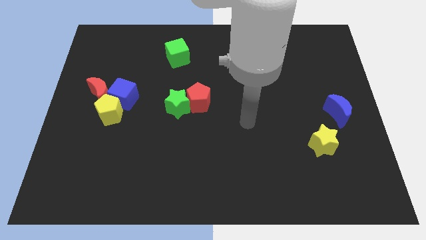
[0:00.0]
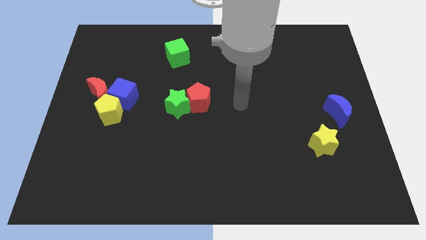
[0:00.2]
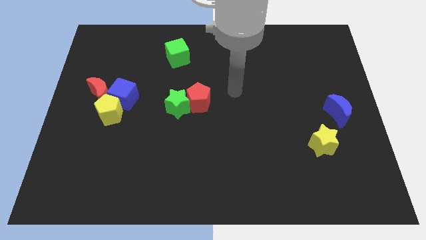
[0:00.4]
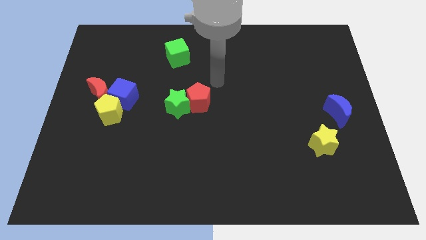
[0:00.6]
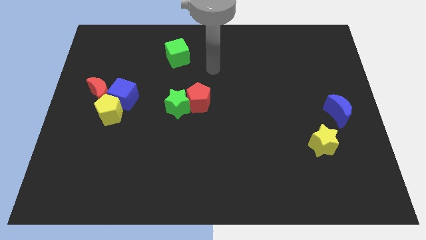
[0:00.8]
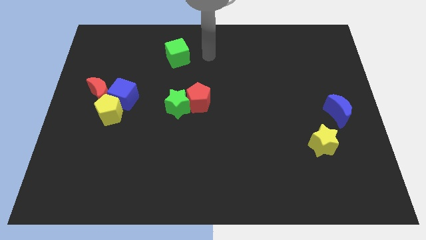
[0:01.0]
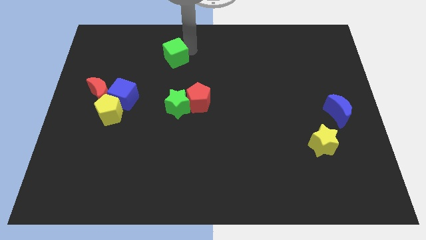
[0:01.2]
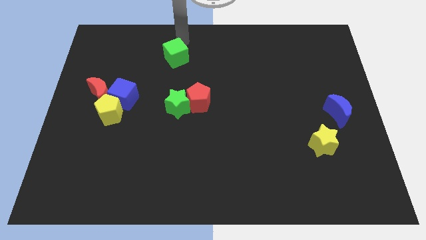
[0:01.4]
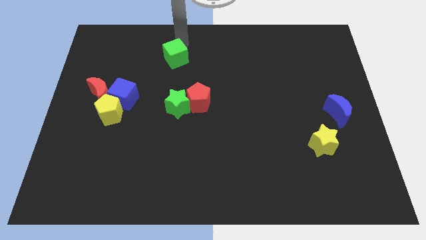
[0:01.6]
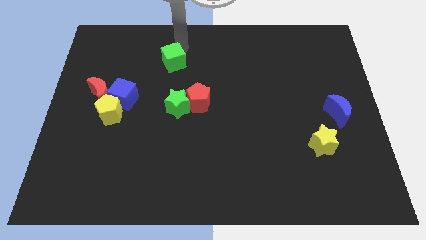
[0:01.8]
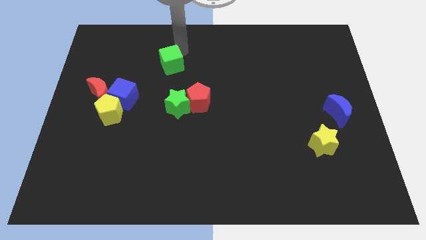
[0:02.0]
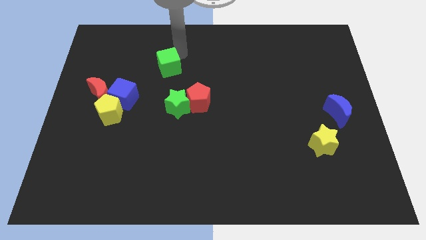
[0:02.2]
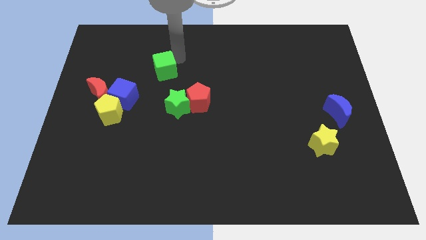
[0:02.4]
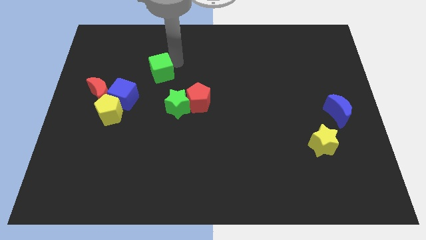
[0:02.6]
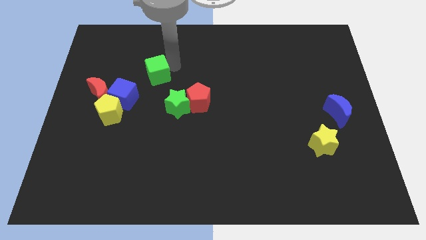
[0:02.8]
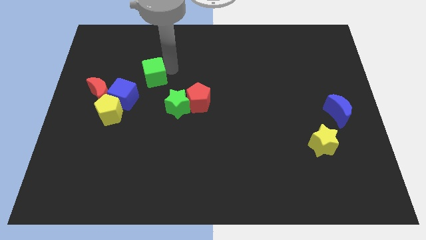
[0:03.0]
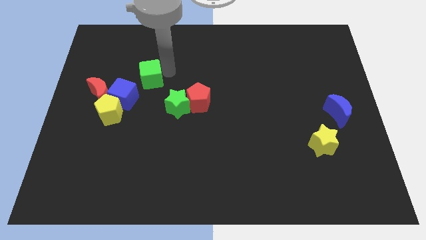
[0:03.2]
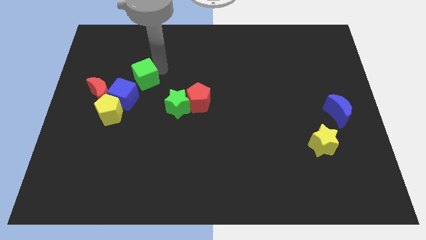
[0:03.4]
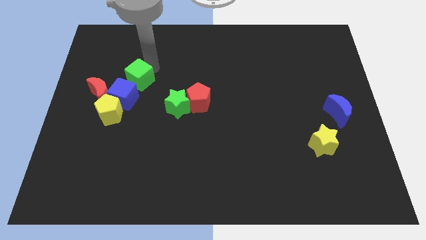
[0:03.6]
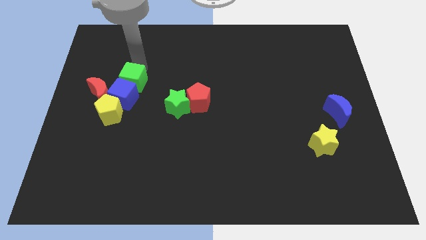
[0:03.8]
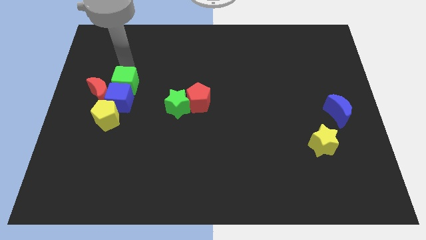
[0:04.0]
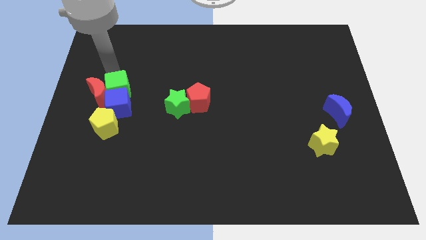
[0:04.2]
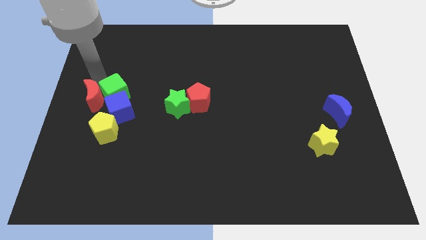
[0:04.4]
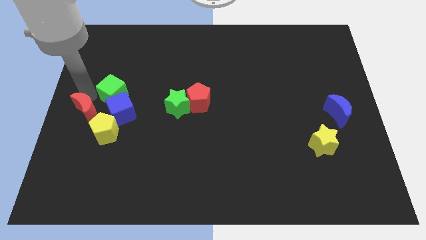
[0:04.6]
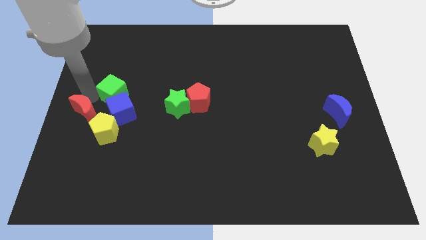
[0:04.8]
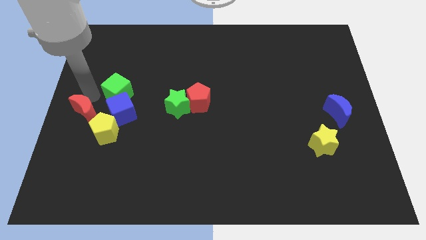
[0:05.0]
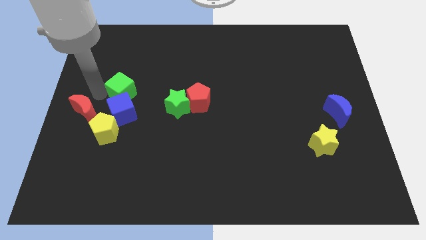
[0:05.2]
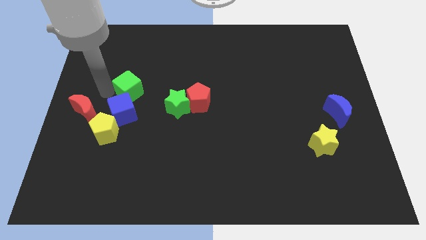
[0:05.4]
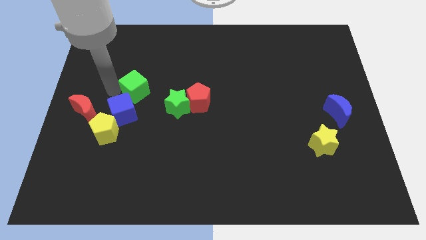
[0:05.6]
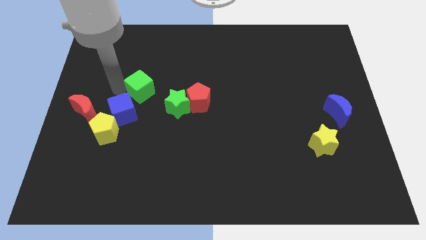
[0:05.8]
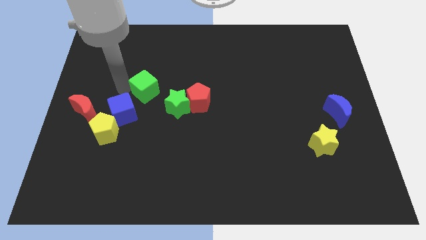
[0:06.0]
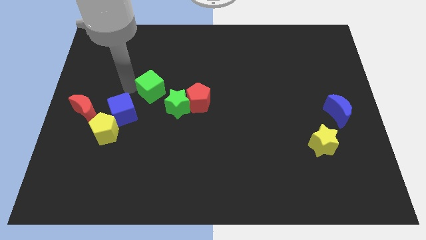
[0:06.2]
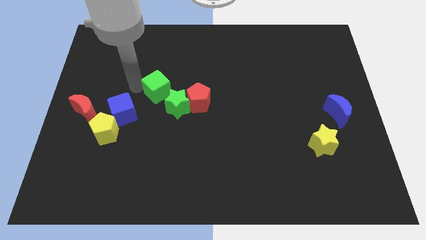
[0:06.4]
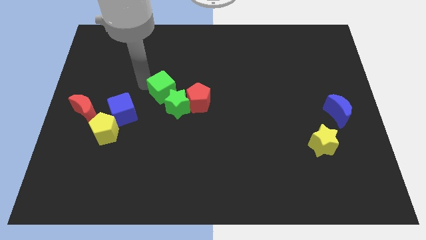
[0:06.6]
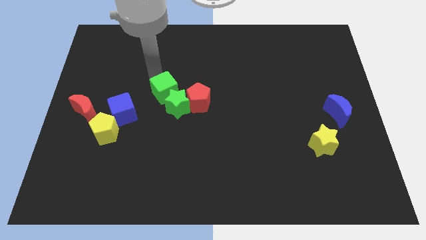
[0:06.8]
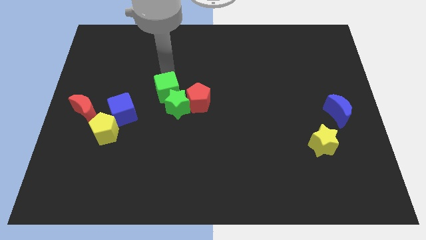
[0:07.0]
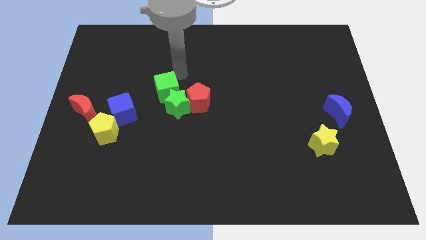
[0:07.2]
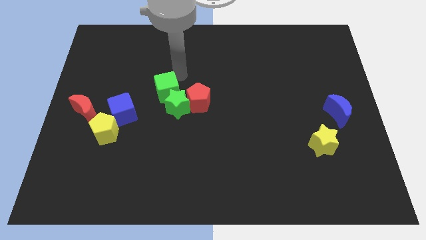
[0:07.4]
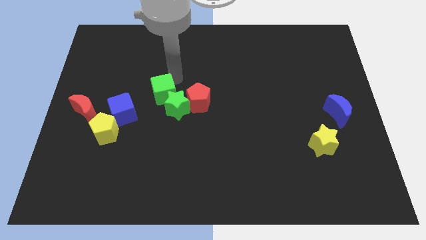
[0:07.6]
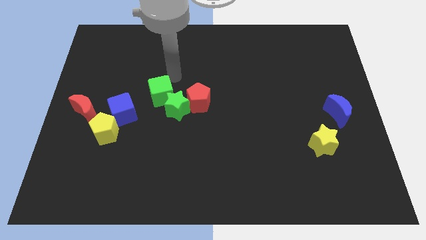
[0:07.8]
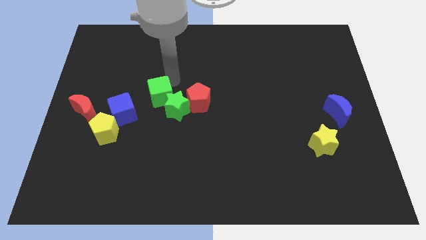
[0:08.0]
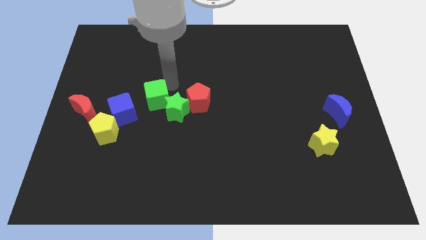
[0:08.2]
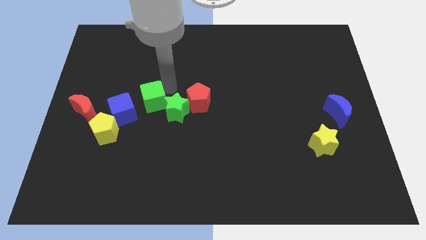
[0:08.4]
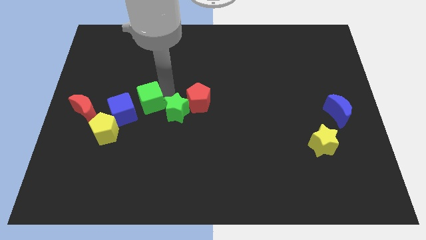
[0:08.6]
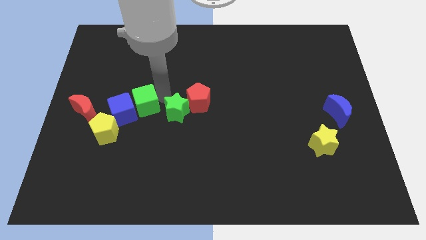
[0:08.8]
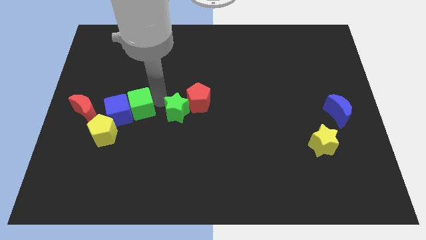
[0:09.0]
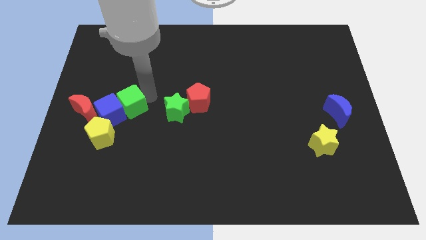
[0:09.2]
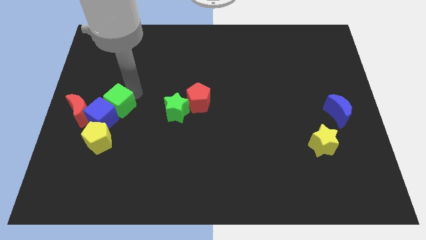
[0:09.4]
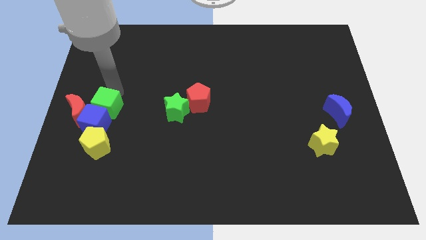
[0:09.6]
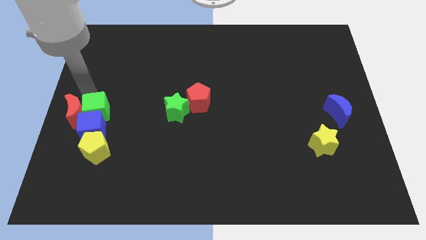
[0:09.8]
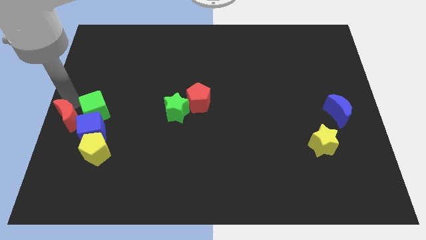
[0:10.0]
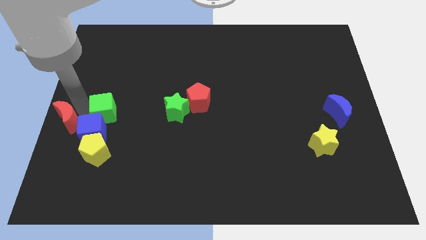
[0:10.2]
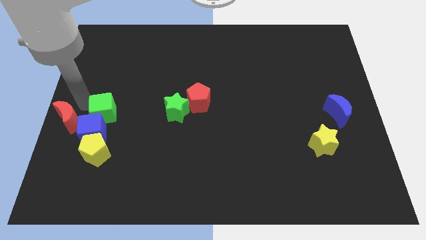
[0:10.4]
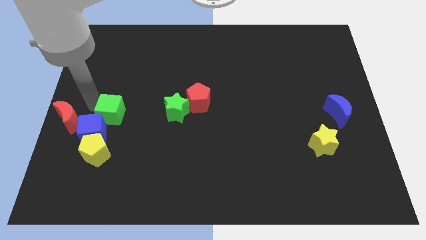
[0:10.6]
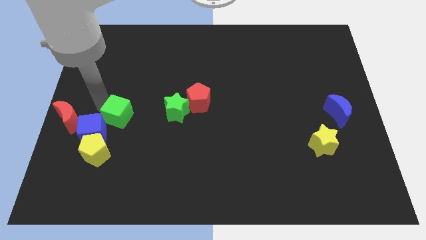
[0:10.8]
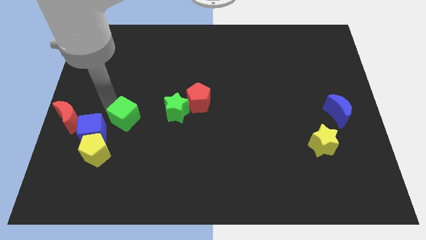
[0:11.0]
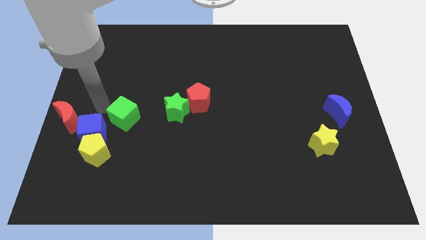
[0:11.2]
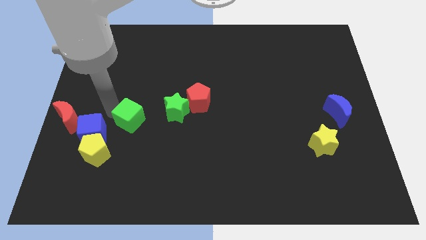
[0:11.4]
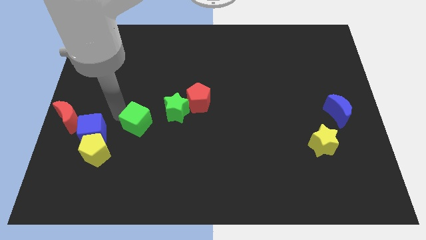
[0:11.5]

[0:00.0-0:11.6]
move the green cube to the bottom left of the green star

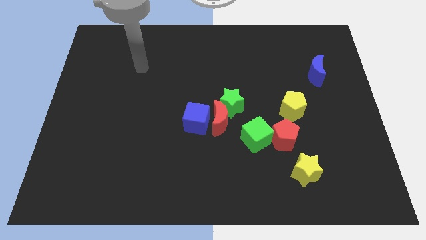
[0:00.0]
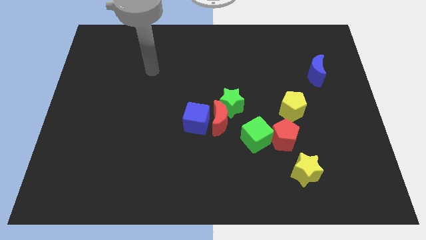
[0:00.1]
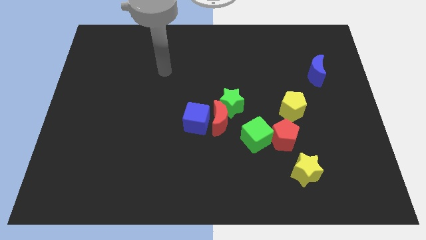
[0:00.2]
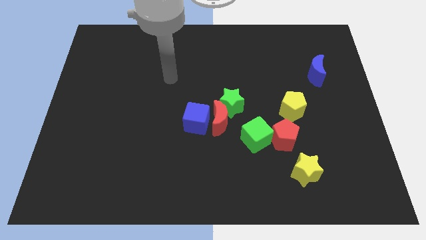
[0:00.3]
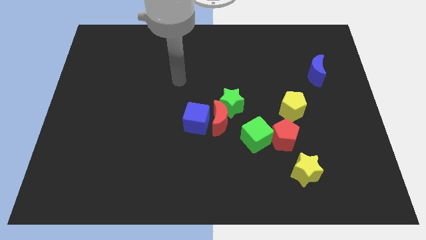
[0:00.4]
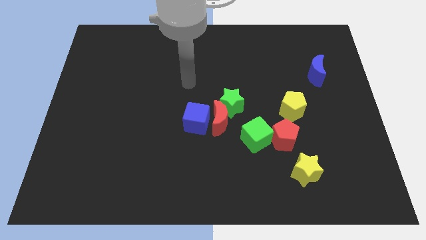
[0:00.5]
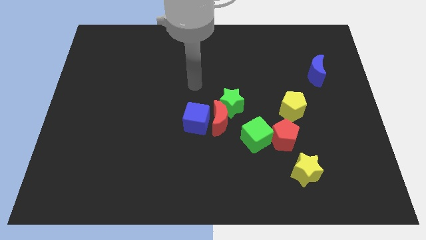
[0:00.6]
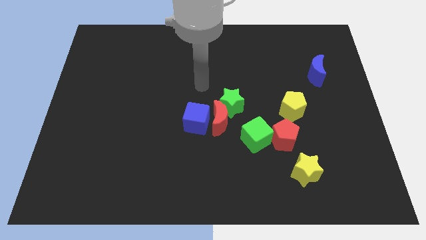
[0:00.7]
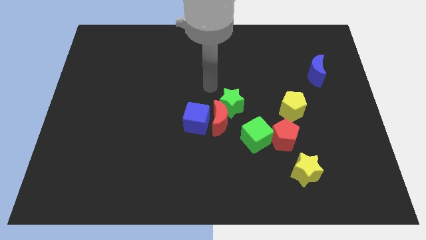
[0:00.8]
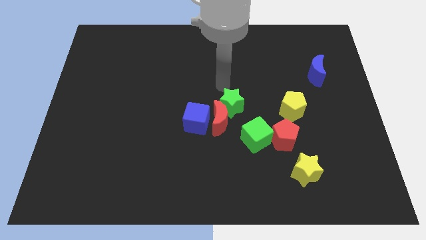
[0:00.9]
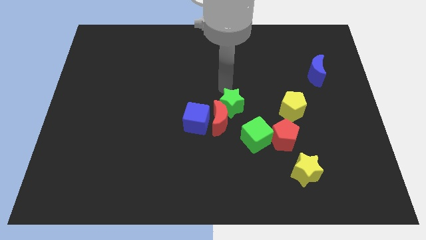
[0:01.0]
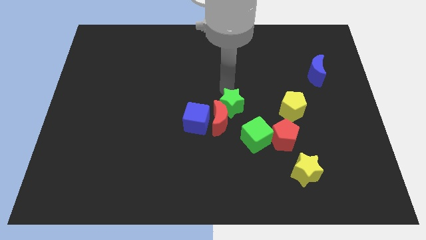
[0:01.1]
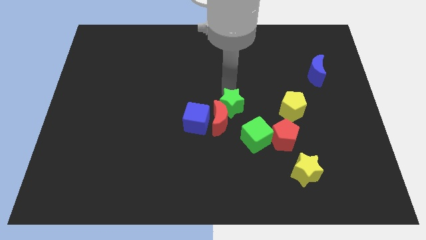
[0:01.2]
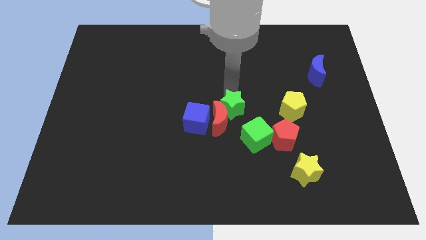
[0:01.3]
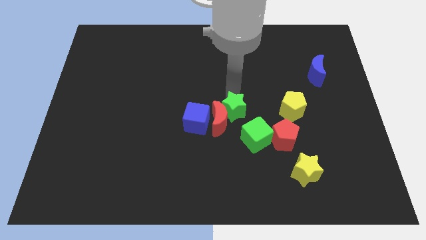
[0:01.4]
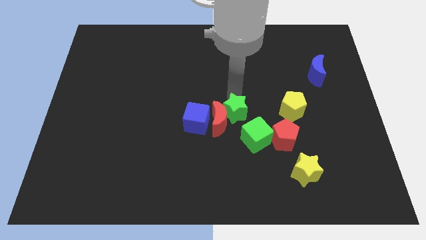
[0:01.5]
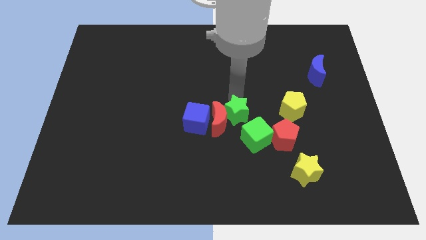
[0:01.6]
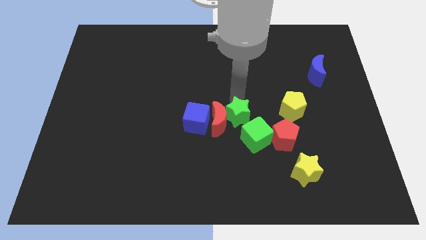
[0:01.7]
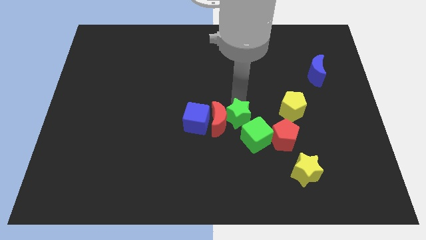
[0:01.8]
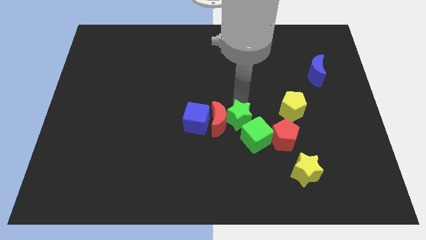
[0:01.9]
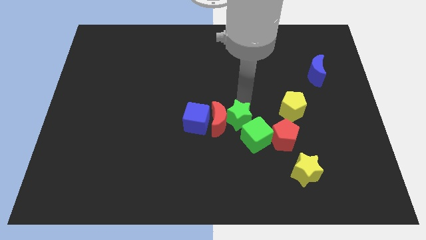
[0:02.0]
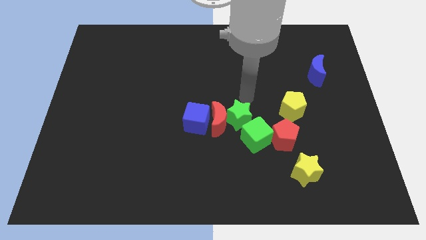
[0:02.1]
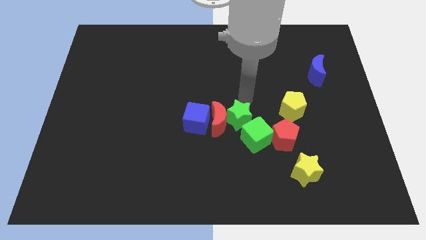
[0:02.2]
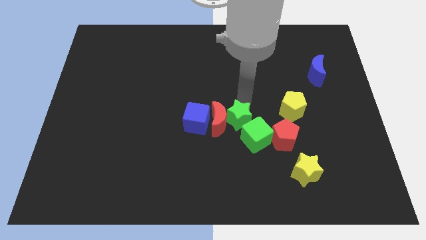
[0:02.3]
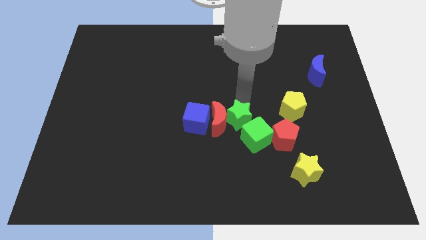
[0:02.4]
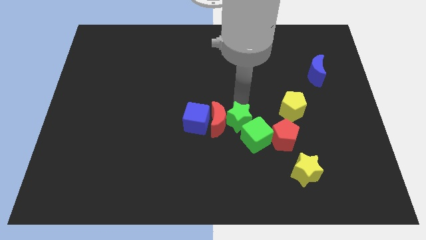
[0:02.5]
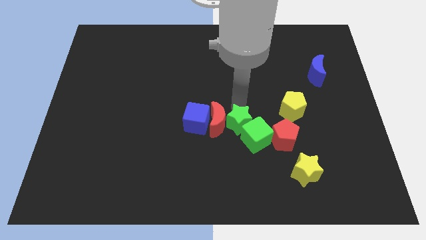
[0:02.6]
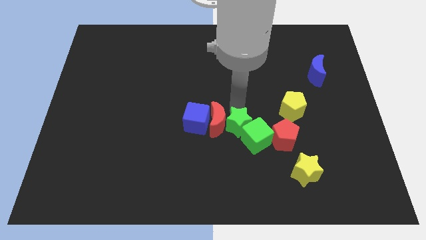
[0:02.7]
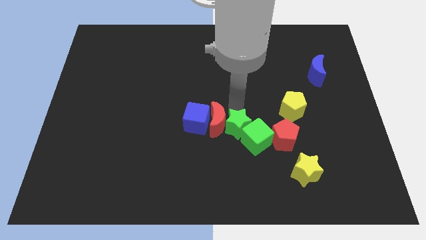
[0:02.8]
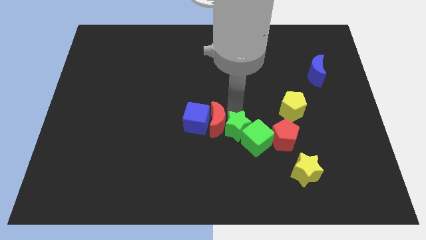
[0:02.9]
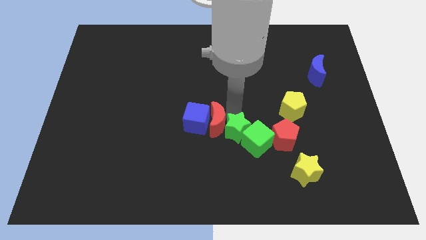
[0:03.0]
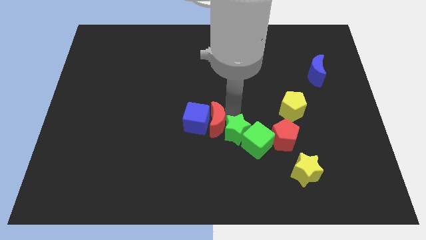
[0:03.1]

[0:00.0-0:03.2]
put the green star to the bottom of the red moon
